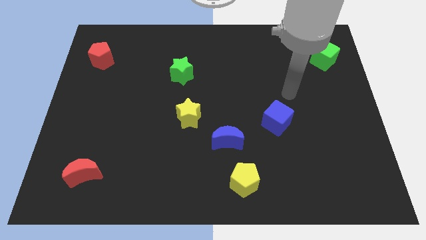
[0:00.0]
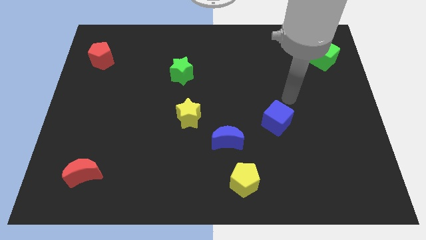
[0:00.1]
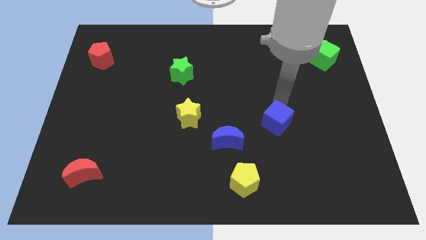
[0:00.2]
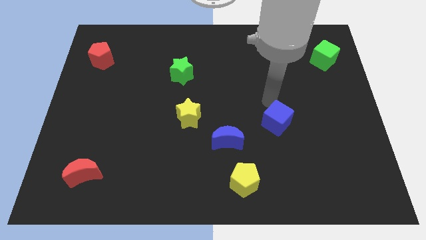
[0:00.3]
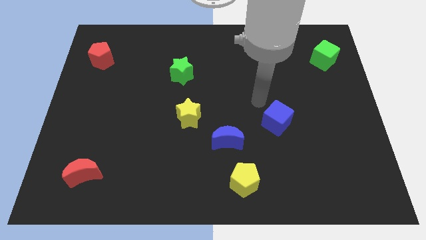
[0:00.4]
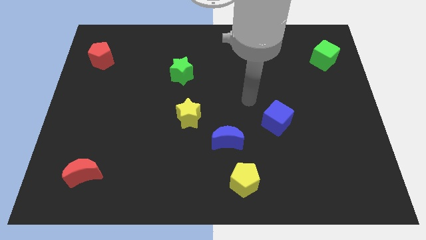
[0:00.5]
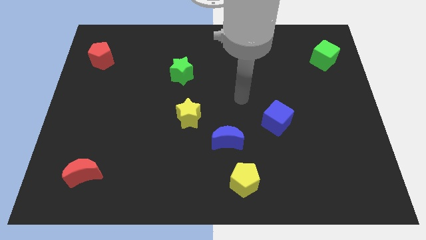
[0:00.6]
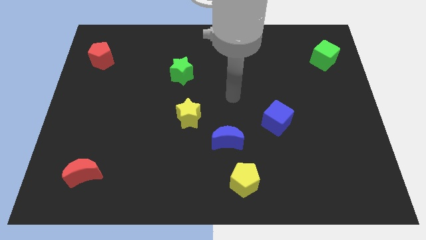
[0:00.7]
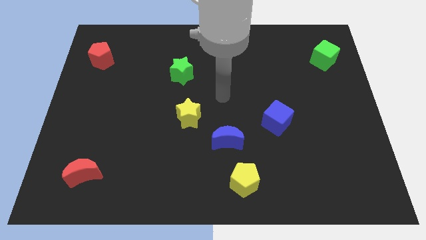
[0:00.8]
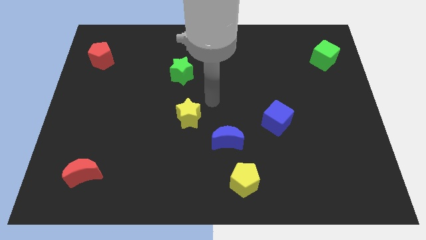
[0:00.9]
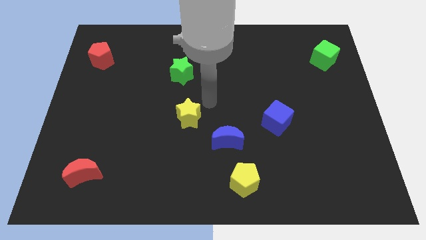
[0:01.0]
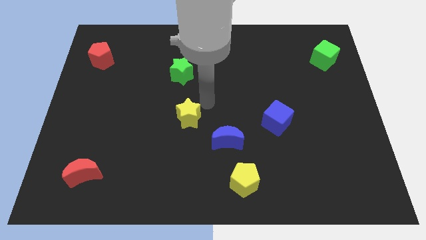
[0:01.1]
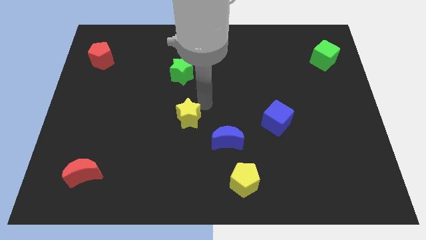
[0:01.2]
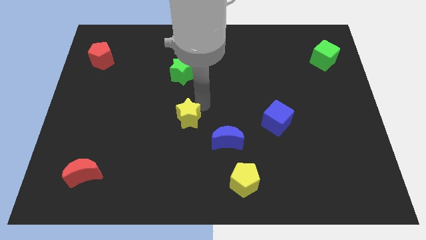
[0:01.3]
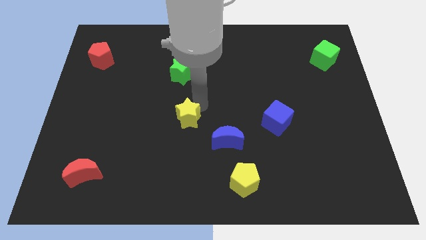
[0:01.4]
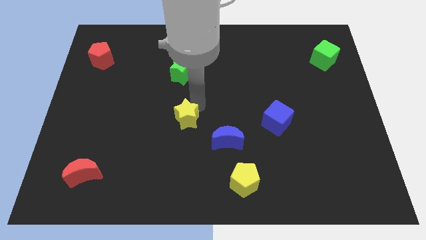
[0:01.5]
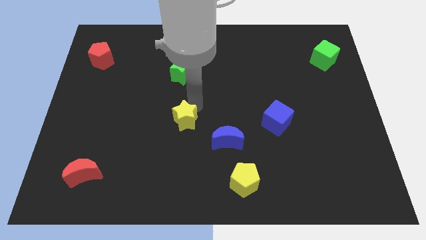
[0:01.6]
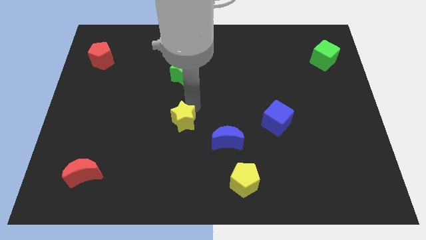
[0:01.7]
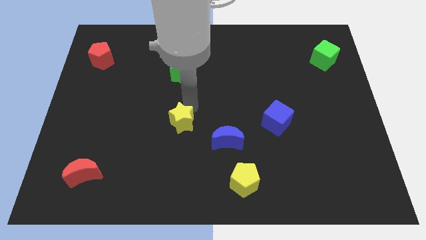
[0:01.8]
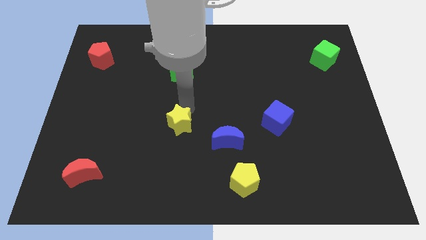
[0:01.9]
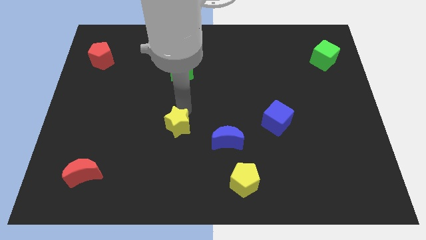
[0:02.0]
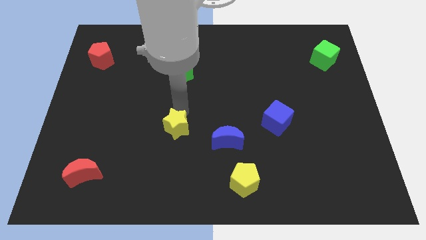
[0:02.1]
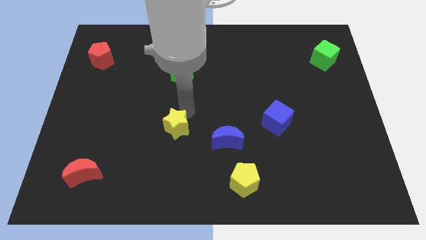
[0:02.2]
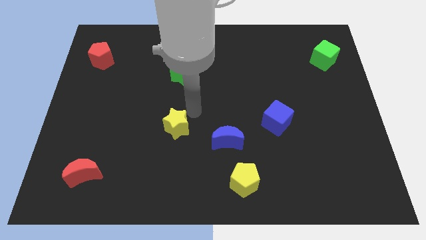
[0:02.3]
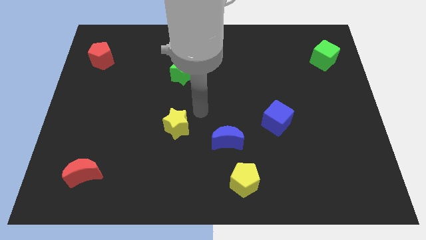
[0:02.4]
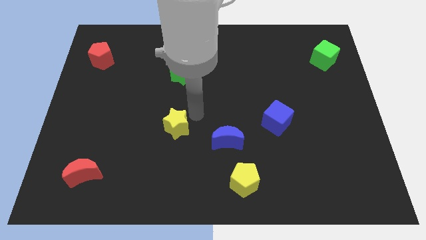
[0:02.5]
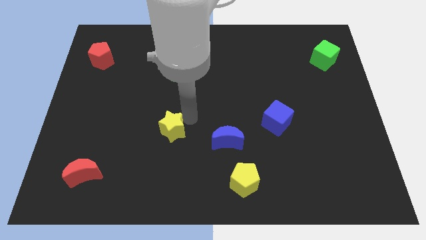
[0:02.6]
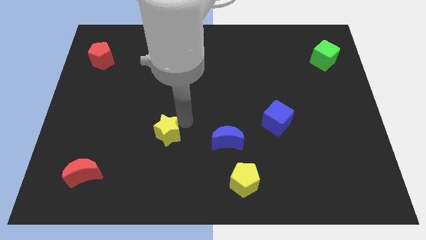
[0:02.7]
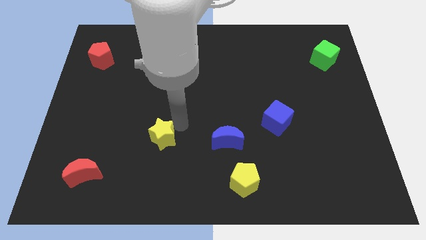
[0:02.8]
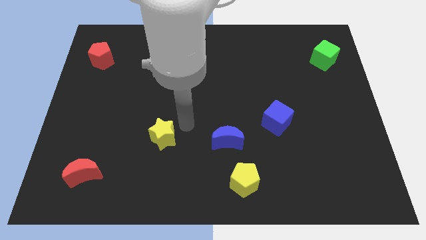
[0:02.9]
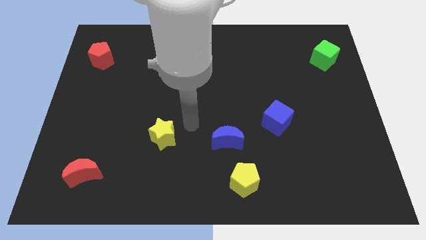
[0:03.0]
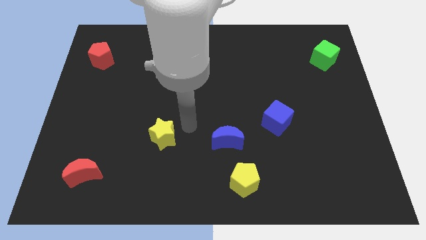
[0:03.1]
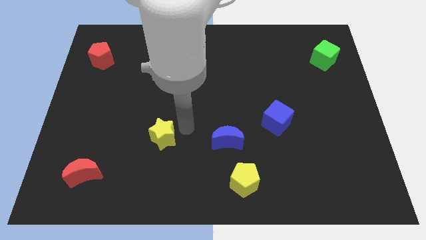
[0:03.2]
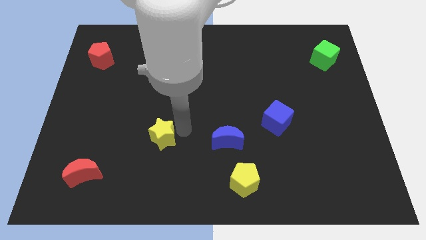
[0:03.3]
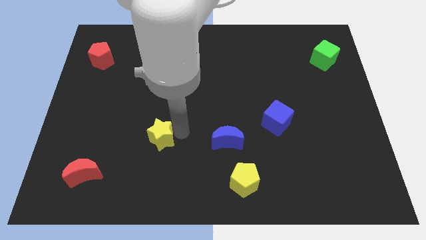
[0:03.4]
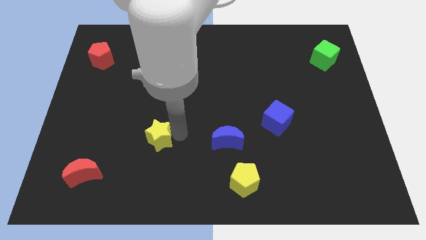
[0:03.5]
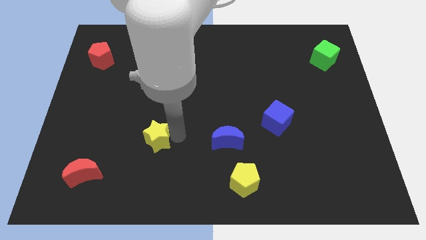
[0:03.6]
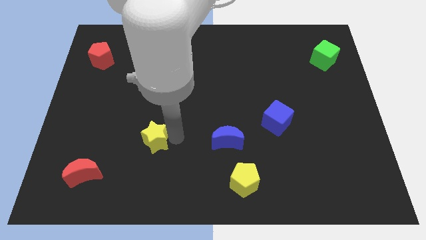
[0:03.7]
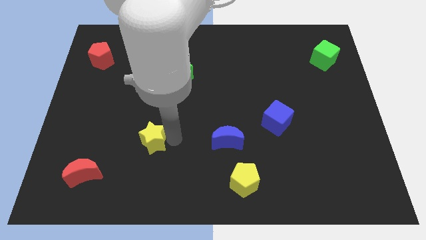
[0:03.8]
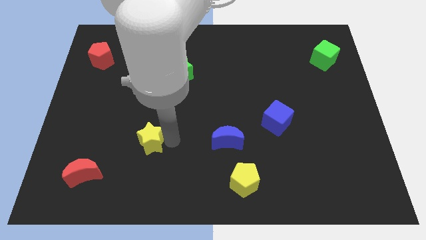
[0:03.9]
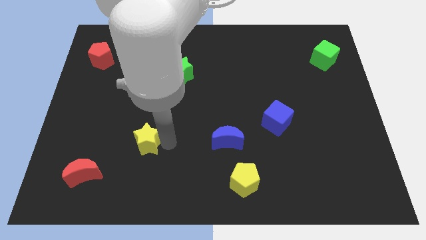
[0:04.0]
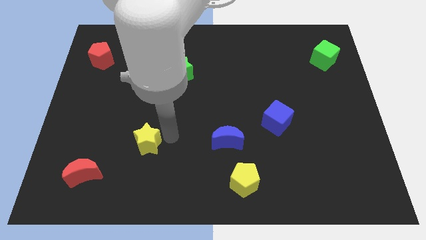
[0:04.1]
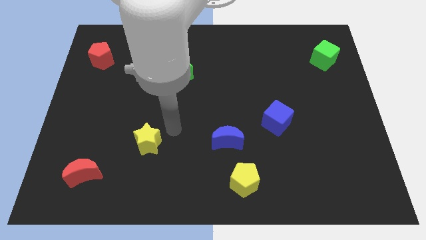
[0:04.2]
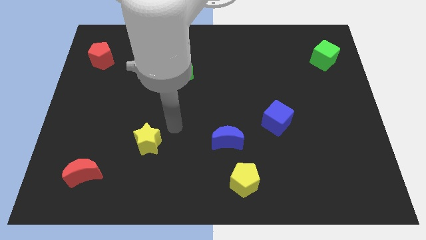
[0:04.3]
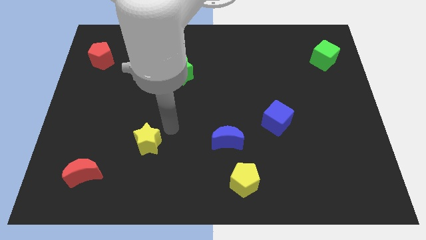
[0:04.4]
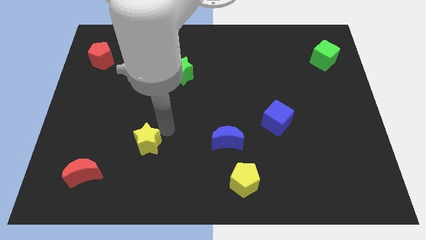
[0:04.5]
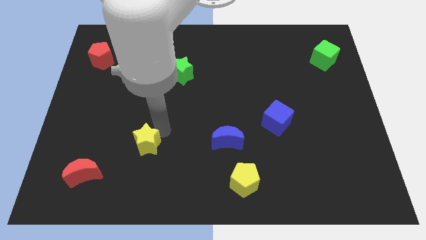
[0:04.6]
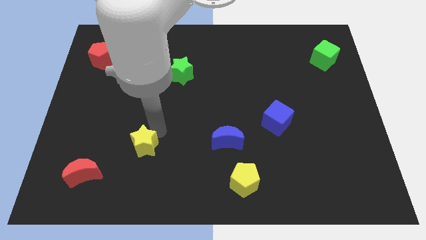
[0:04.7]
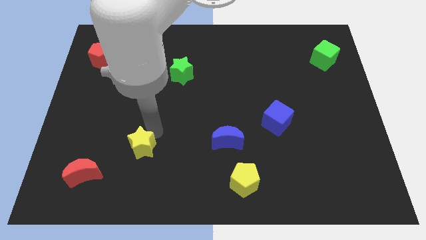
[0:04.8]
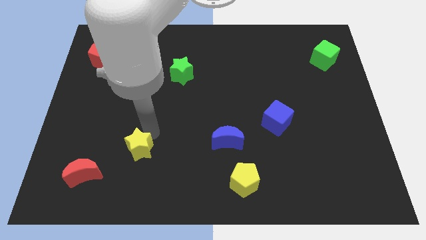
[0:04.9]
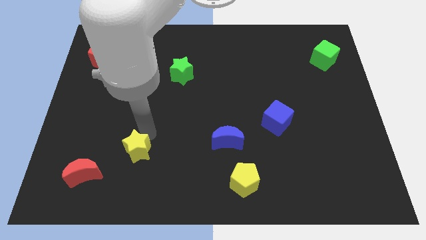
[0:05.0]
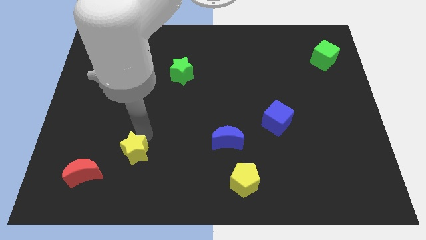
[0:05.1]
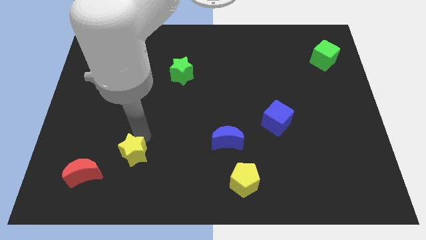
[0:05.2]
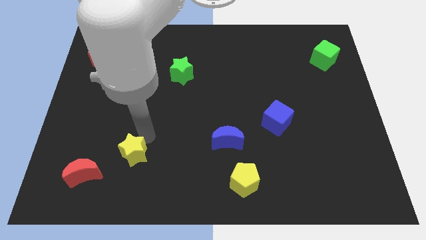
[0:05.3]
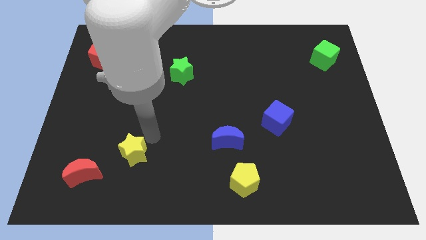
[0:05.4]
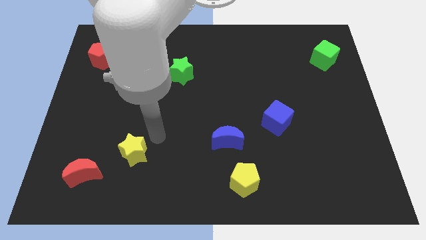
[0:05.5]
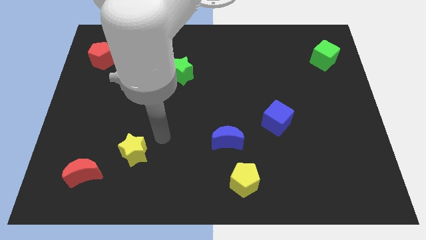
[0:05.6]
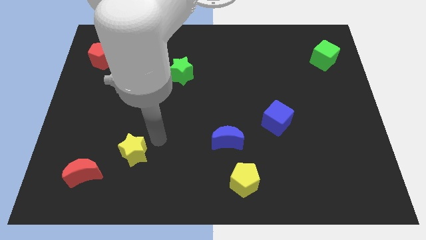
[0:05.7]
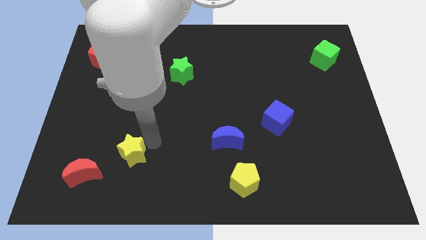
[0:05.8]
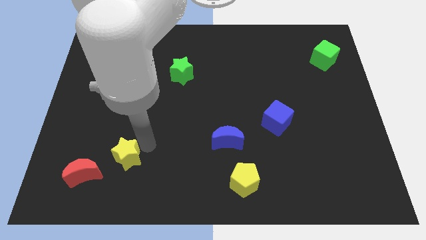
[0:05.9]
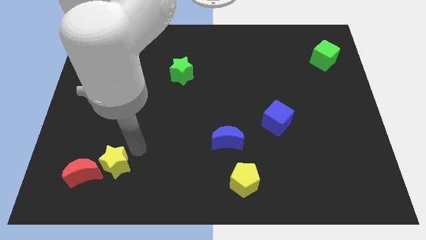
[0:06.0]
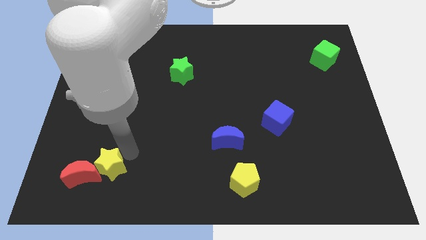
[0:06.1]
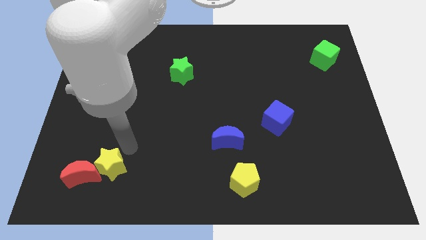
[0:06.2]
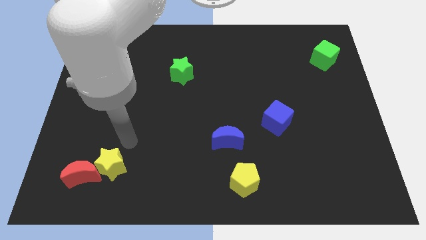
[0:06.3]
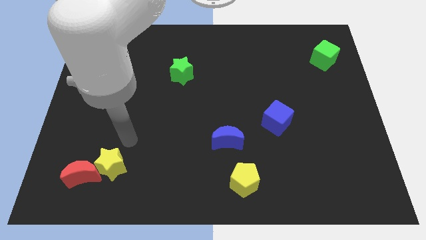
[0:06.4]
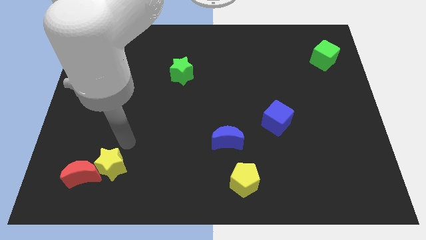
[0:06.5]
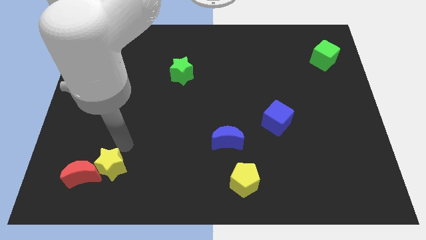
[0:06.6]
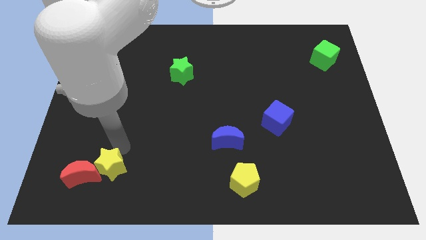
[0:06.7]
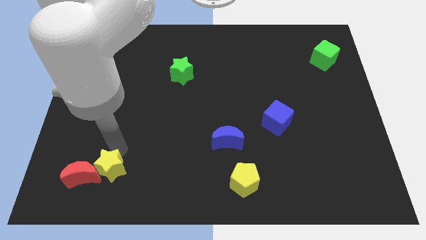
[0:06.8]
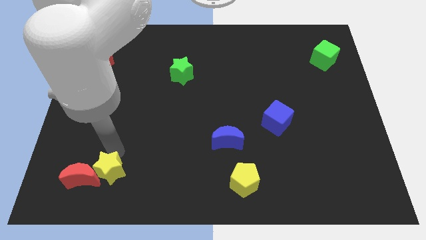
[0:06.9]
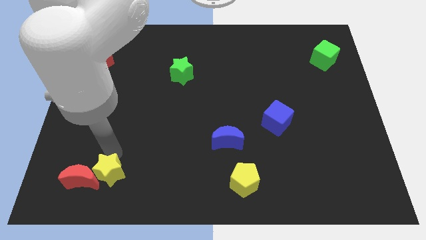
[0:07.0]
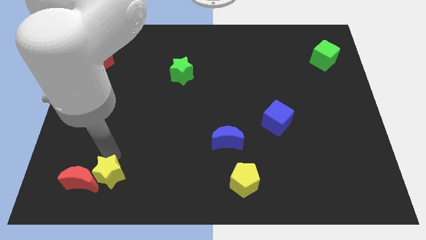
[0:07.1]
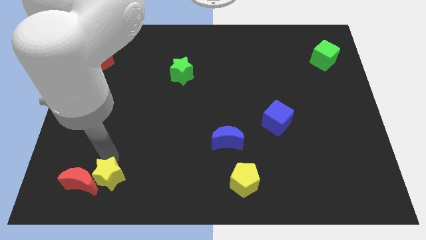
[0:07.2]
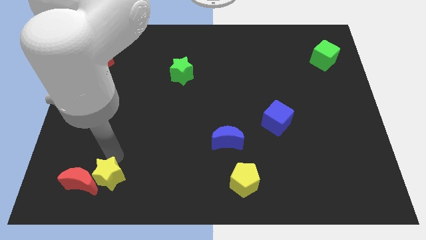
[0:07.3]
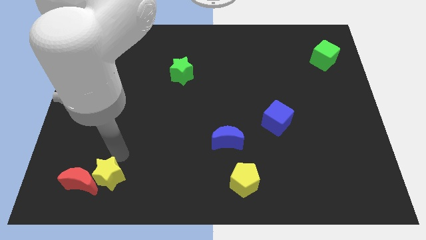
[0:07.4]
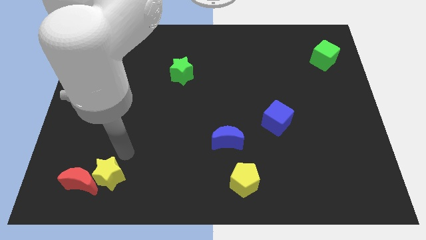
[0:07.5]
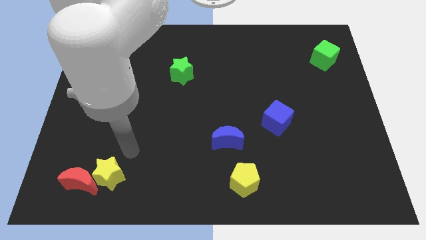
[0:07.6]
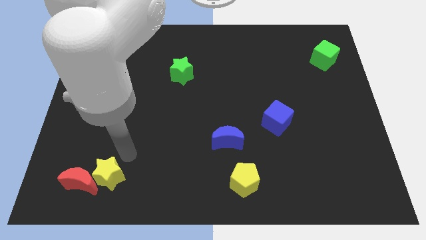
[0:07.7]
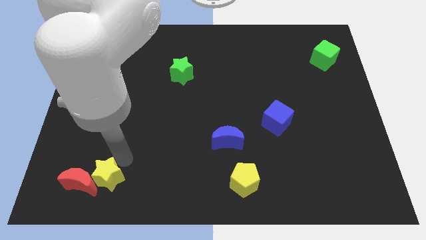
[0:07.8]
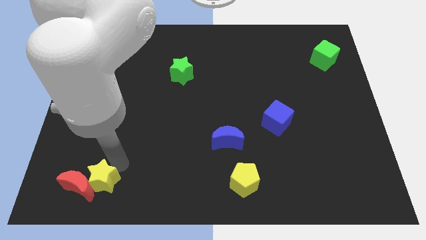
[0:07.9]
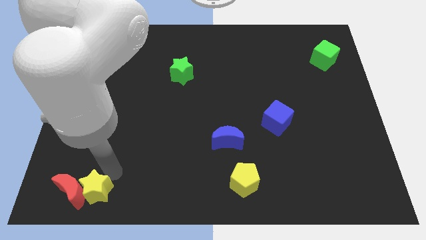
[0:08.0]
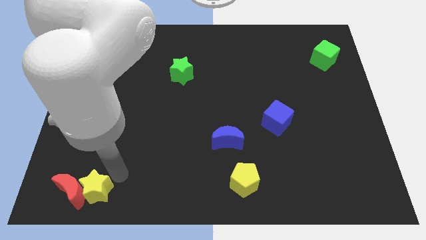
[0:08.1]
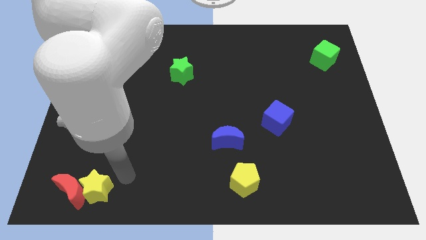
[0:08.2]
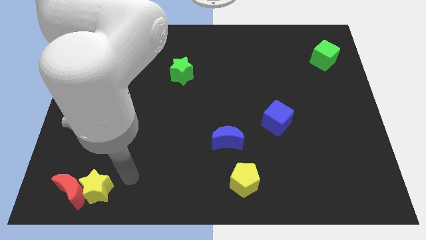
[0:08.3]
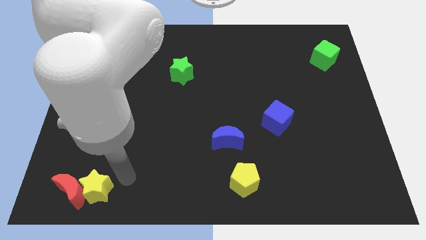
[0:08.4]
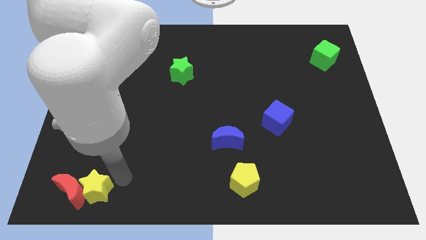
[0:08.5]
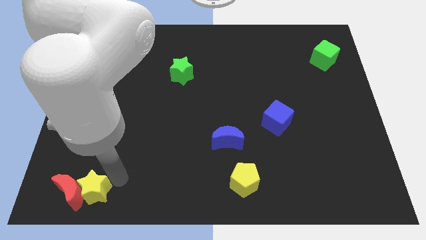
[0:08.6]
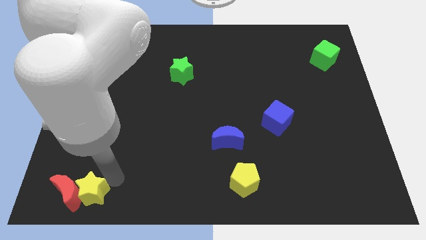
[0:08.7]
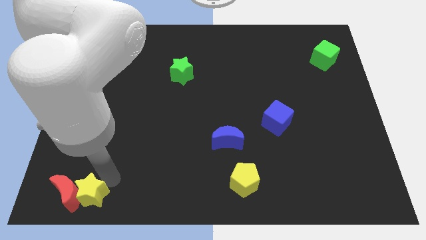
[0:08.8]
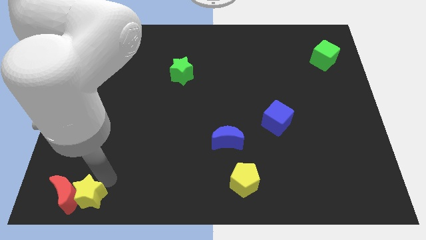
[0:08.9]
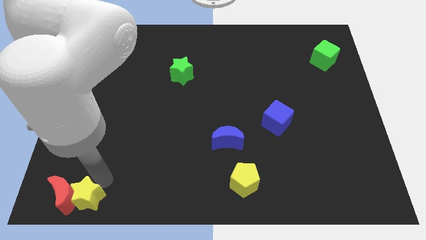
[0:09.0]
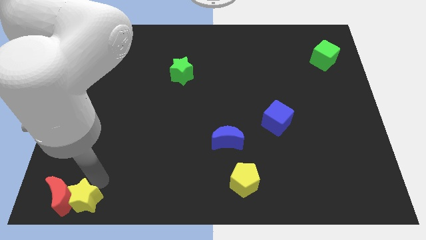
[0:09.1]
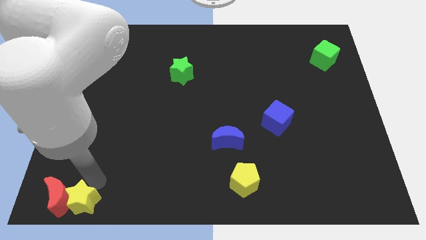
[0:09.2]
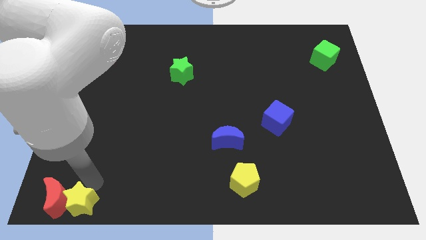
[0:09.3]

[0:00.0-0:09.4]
move the yellow star to the bottom left of the board
